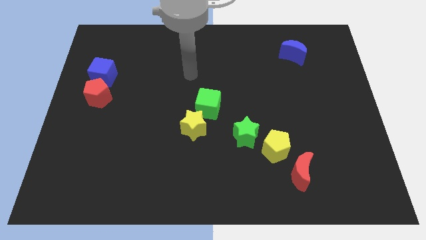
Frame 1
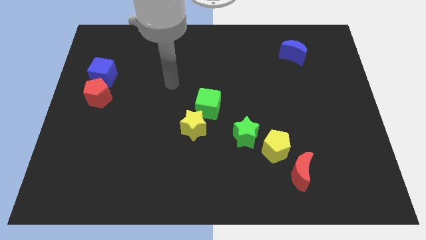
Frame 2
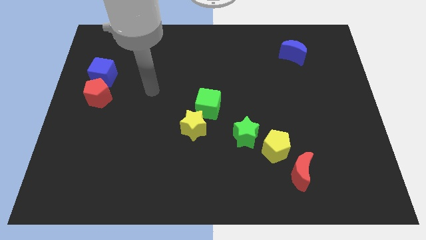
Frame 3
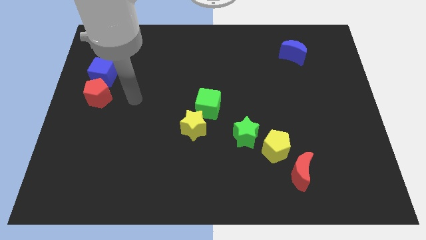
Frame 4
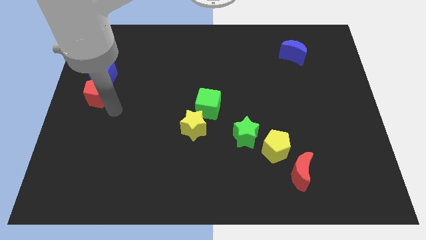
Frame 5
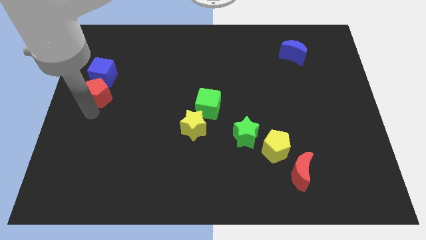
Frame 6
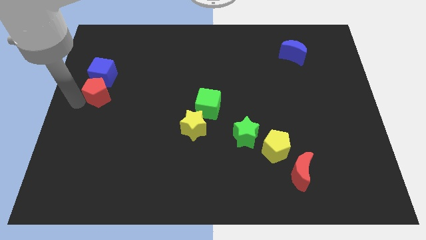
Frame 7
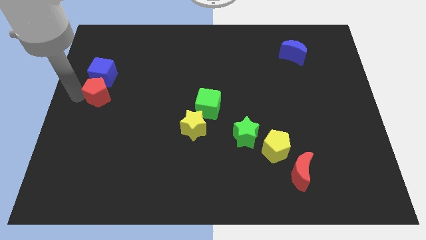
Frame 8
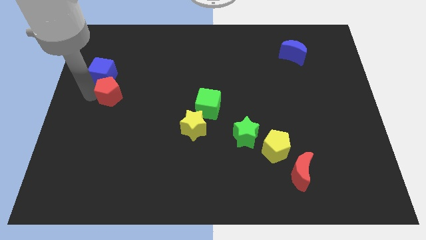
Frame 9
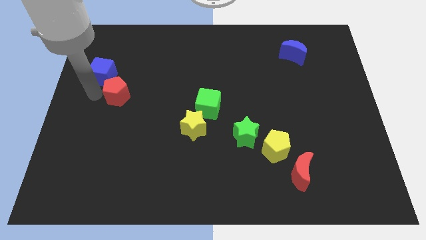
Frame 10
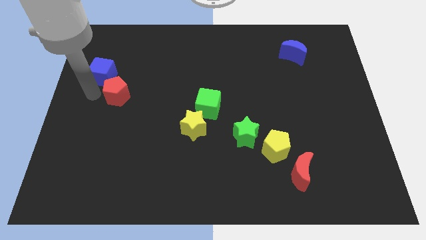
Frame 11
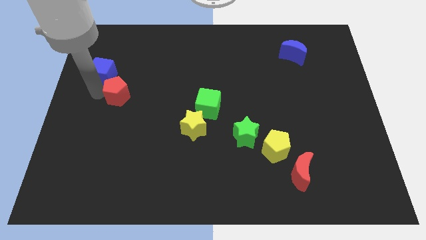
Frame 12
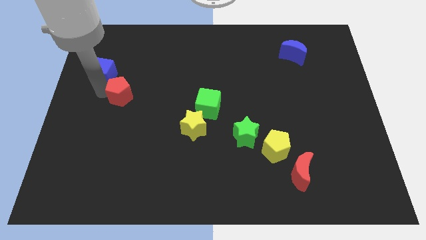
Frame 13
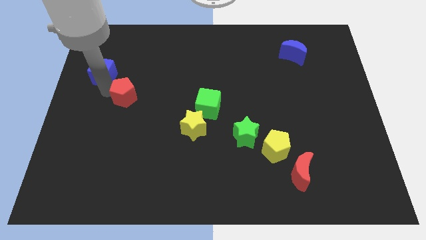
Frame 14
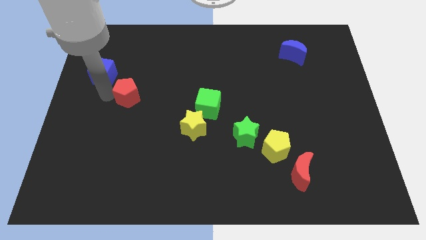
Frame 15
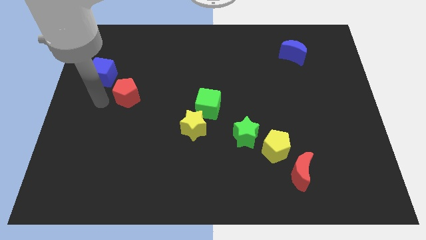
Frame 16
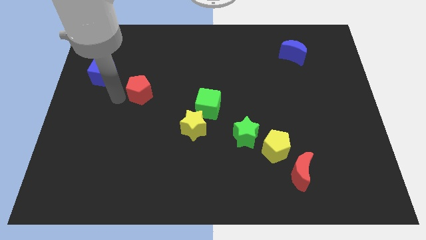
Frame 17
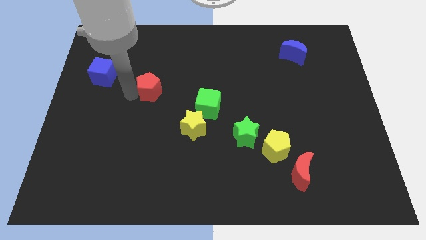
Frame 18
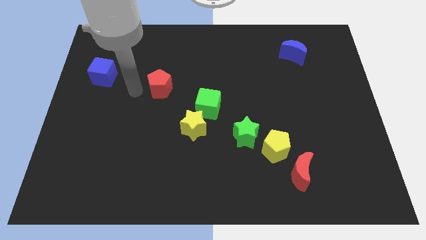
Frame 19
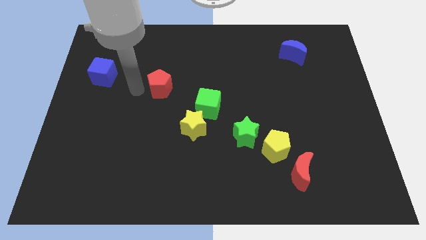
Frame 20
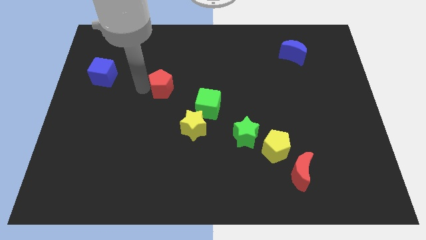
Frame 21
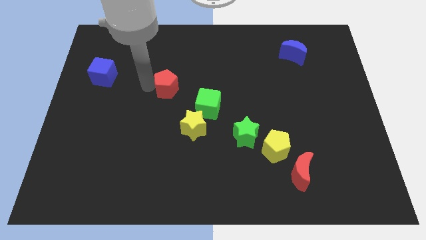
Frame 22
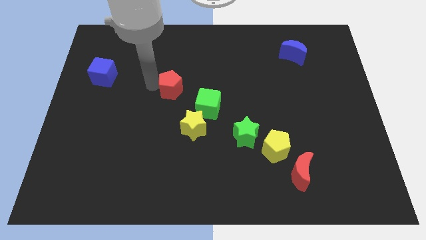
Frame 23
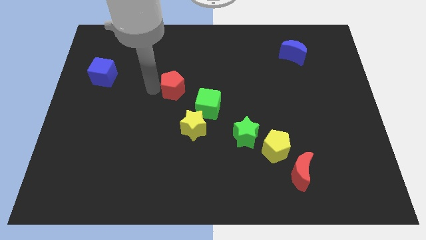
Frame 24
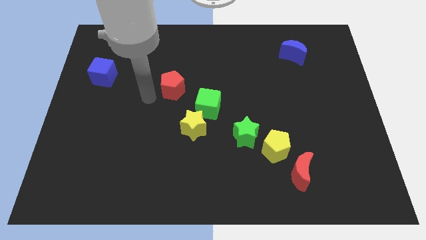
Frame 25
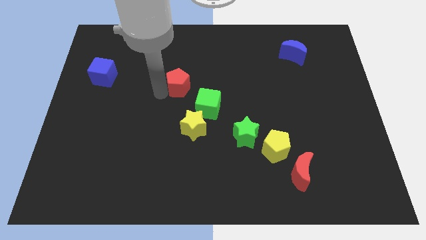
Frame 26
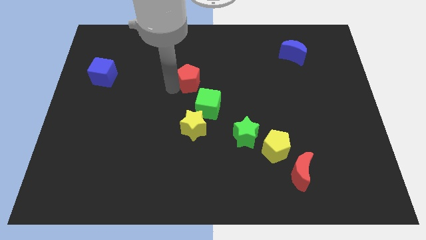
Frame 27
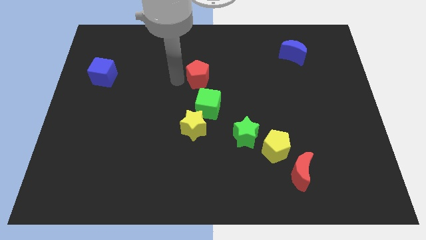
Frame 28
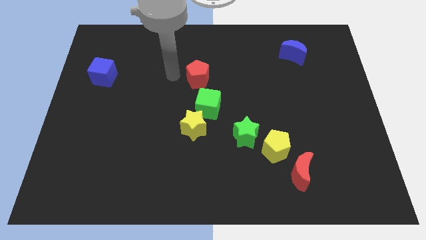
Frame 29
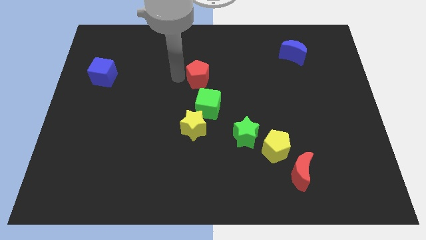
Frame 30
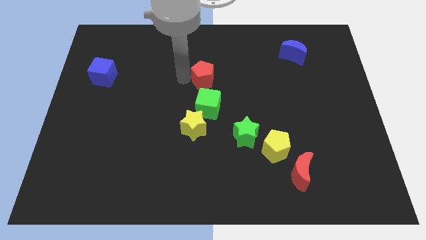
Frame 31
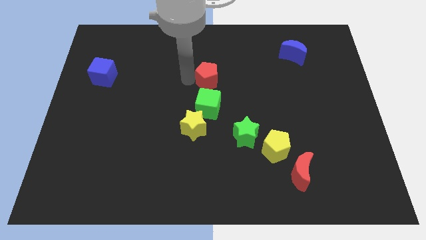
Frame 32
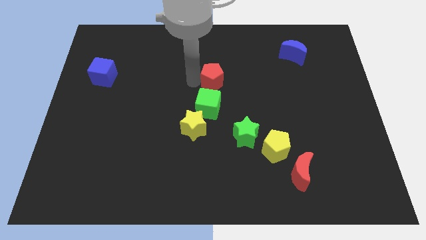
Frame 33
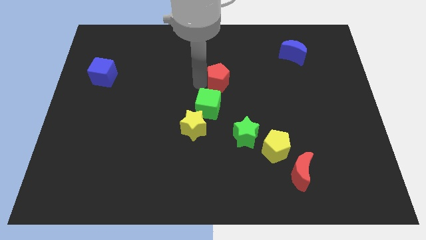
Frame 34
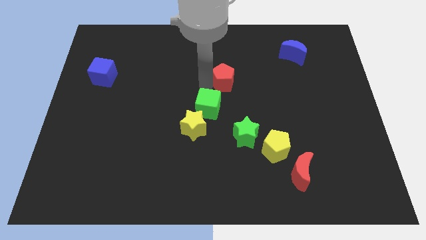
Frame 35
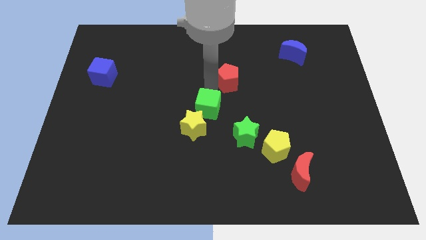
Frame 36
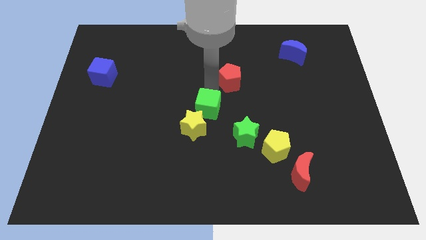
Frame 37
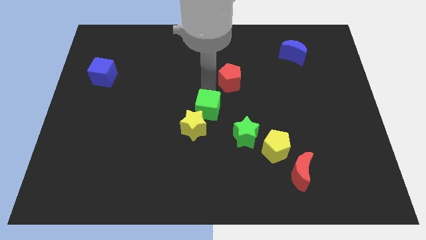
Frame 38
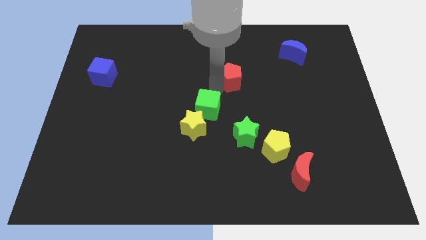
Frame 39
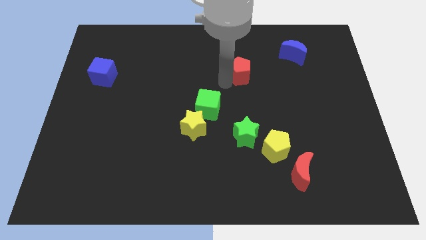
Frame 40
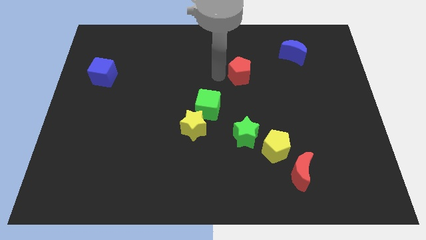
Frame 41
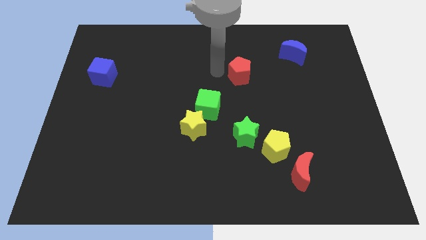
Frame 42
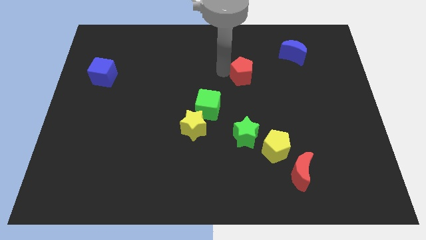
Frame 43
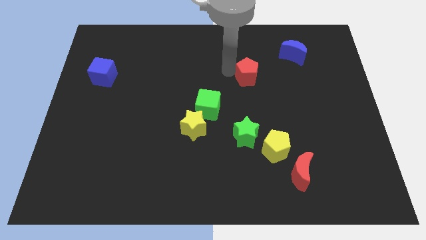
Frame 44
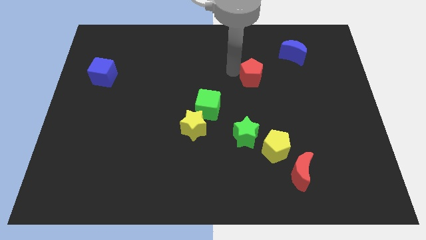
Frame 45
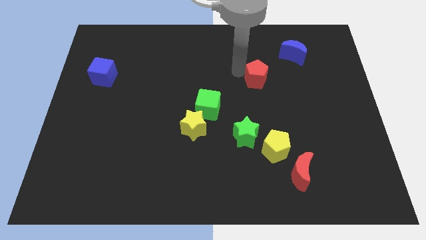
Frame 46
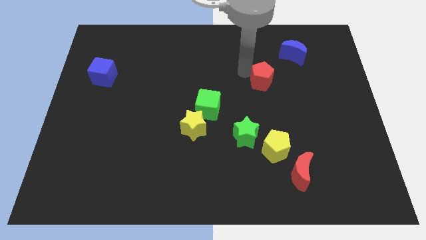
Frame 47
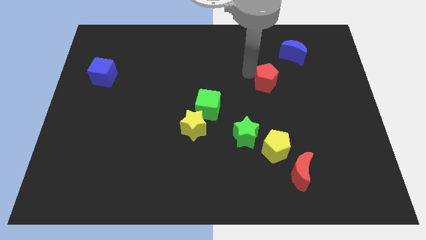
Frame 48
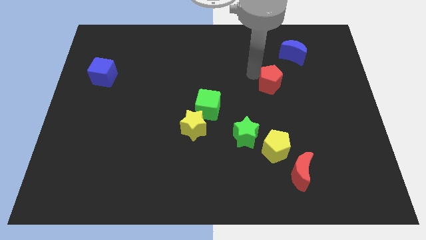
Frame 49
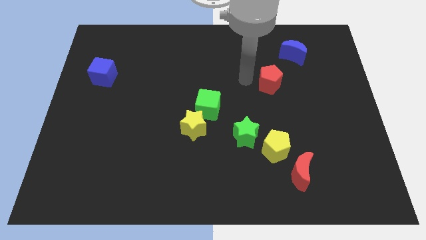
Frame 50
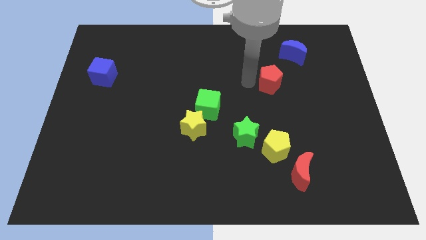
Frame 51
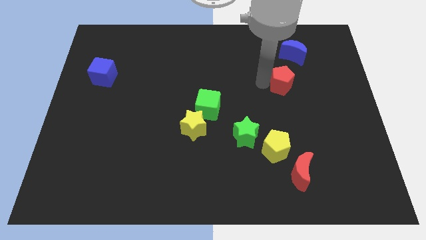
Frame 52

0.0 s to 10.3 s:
slide the red pentagon to the bottom side of the blue moon

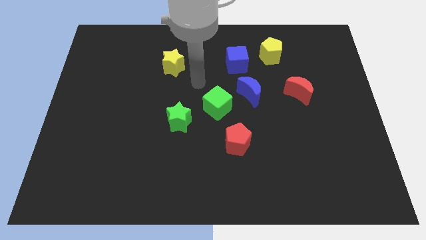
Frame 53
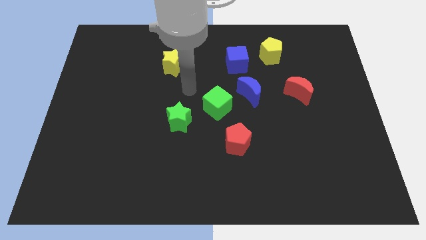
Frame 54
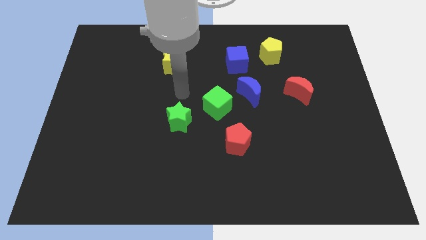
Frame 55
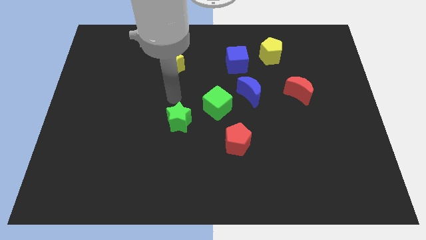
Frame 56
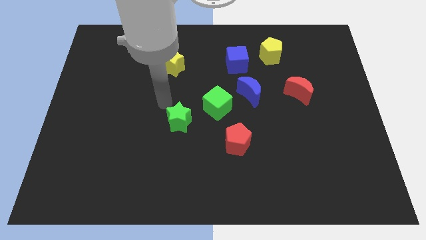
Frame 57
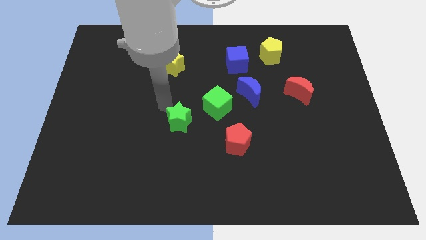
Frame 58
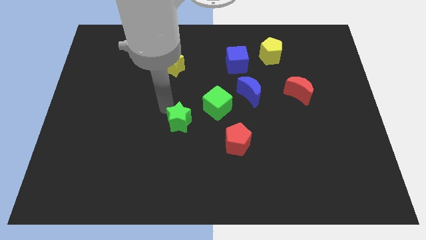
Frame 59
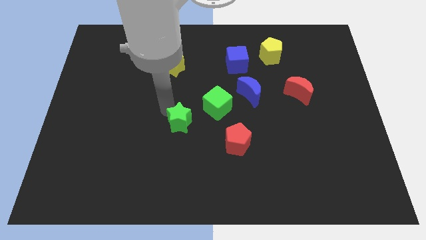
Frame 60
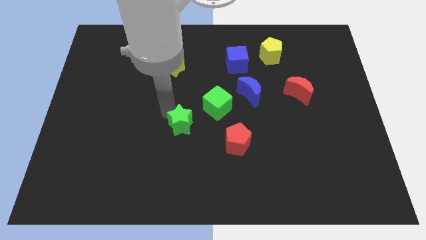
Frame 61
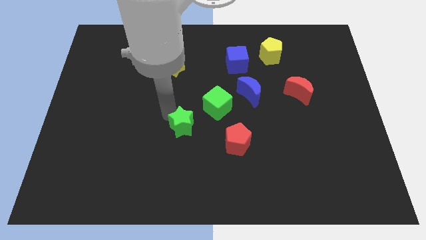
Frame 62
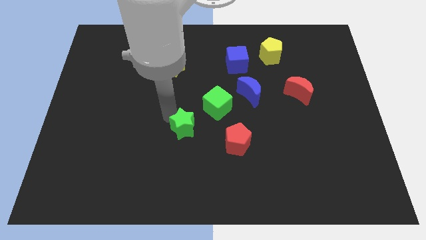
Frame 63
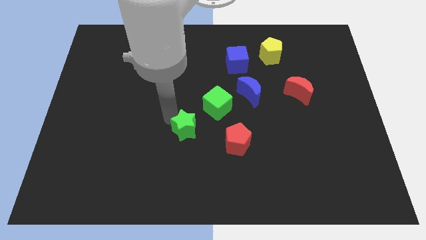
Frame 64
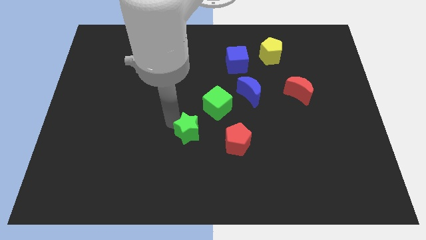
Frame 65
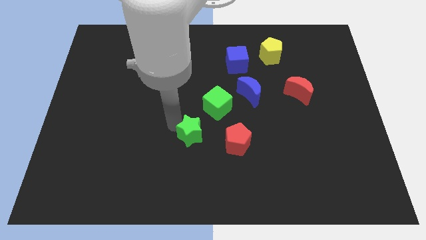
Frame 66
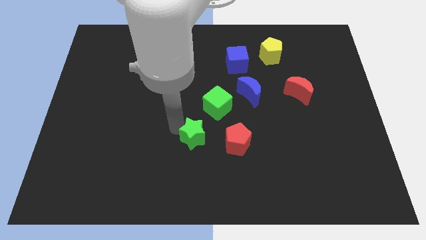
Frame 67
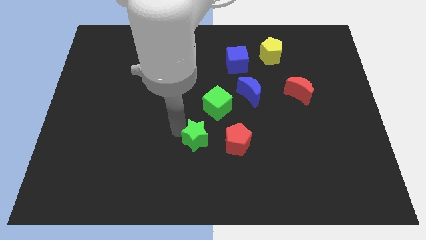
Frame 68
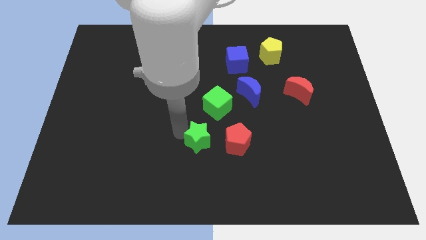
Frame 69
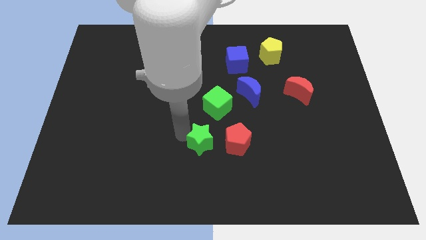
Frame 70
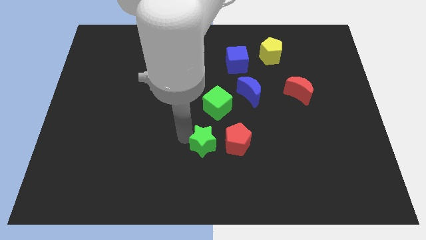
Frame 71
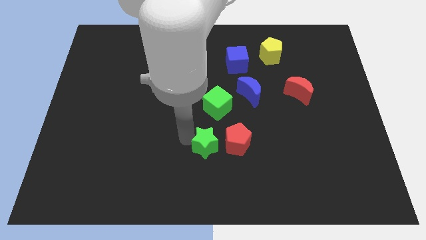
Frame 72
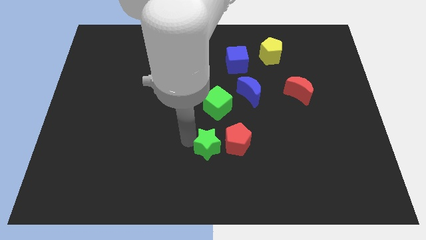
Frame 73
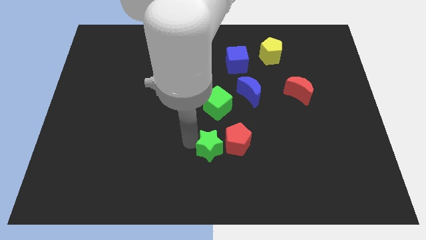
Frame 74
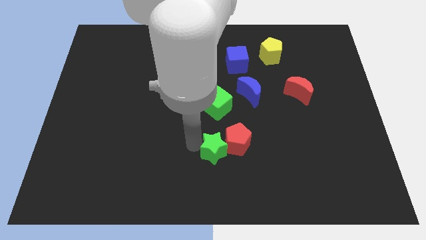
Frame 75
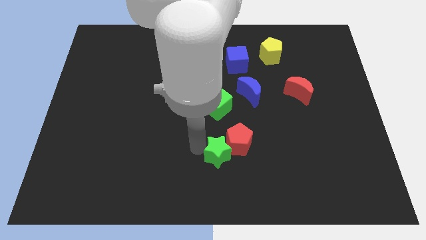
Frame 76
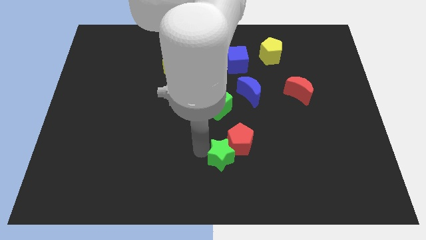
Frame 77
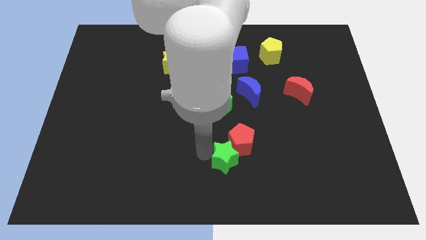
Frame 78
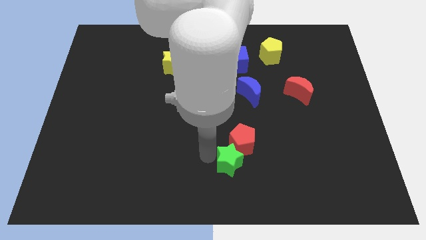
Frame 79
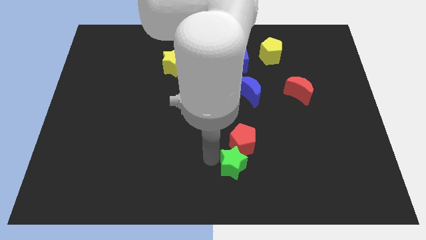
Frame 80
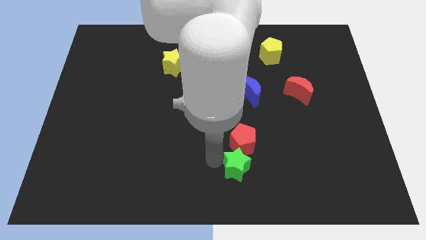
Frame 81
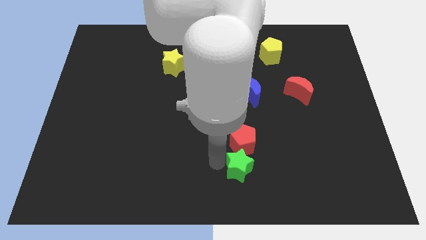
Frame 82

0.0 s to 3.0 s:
push the green star to the bottom right side of the red pentagon
